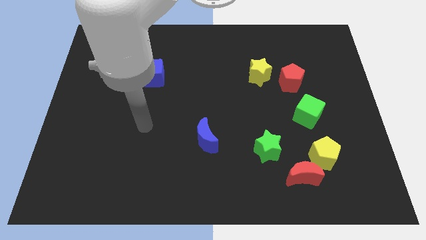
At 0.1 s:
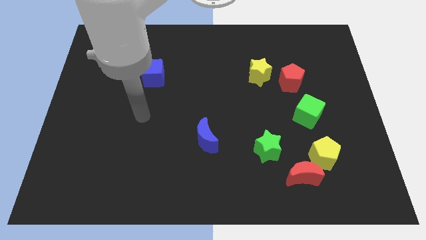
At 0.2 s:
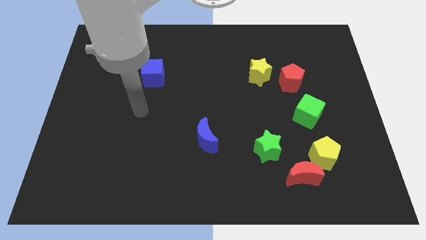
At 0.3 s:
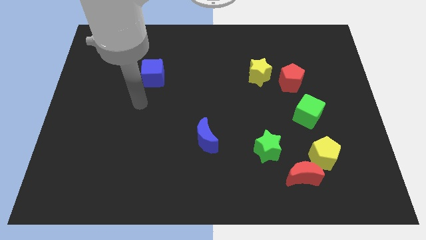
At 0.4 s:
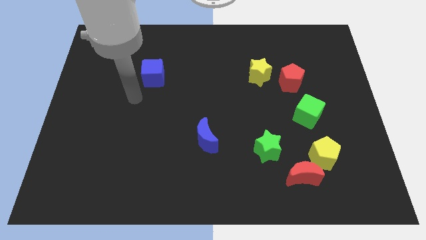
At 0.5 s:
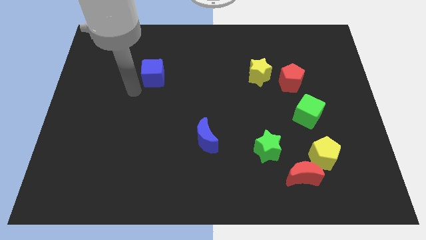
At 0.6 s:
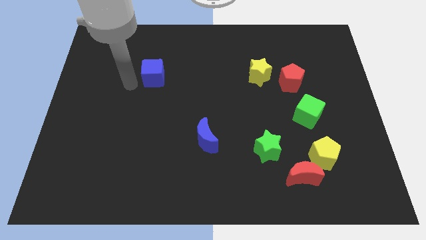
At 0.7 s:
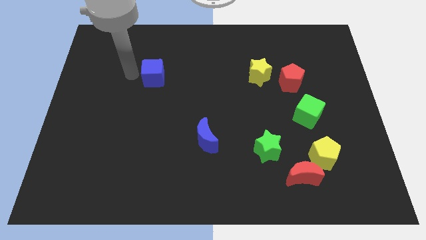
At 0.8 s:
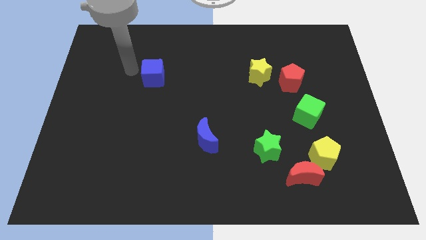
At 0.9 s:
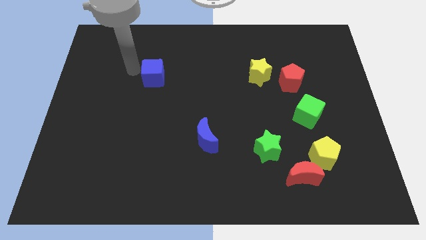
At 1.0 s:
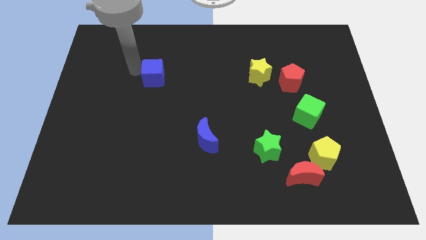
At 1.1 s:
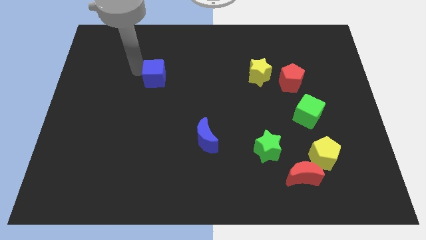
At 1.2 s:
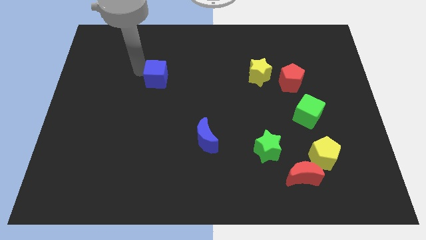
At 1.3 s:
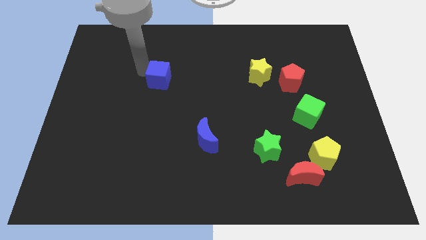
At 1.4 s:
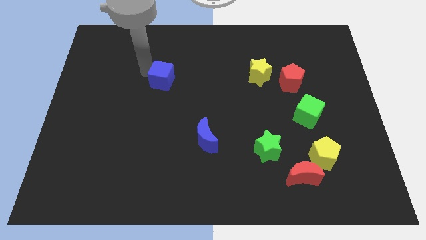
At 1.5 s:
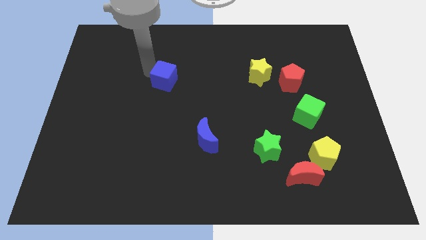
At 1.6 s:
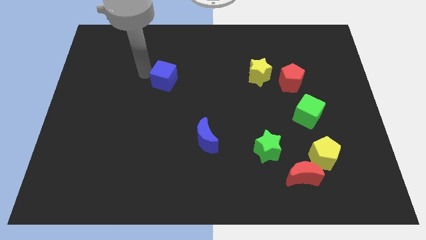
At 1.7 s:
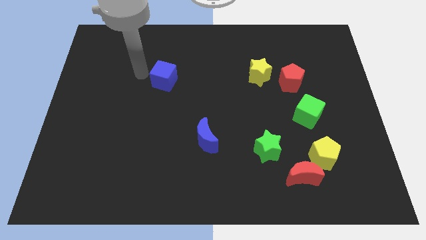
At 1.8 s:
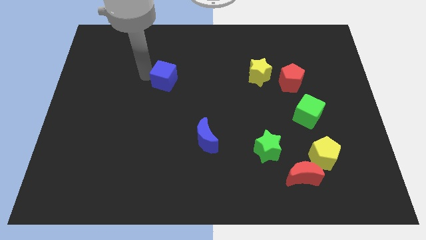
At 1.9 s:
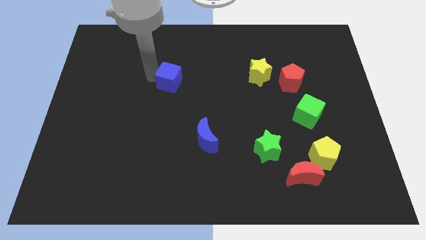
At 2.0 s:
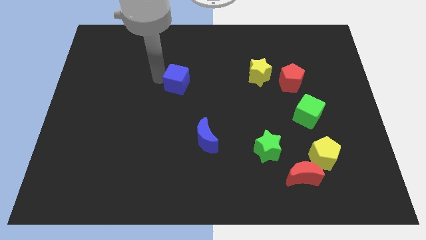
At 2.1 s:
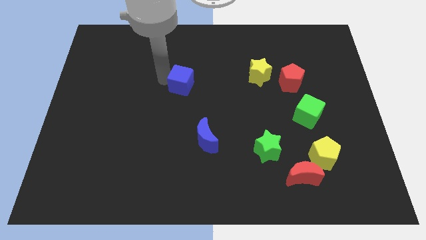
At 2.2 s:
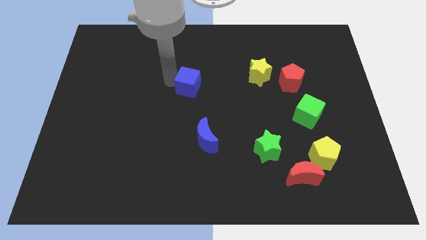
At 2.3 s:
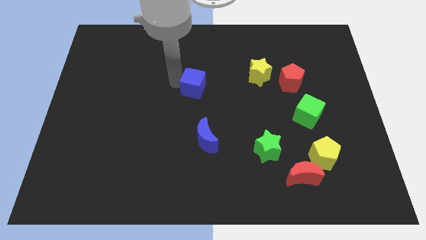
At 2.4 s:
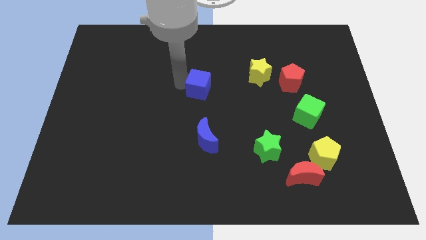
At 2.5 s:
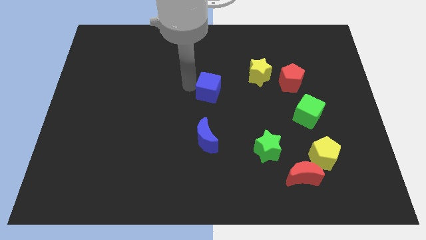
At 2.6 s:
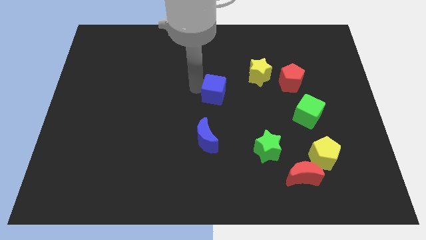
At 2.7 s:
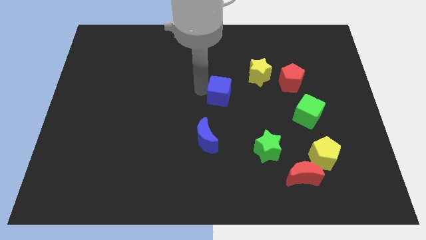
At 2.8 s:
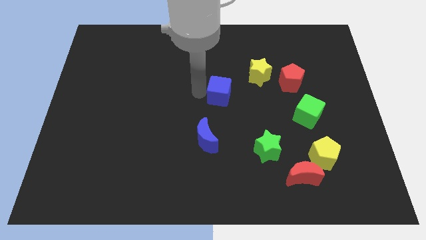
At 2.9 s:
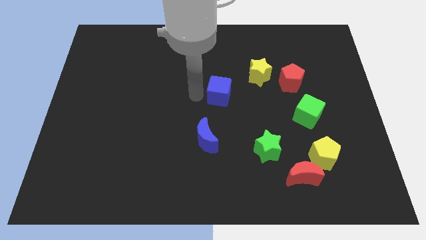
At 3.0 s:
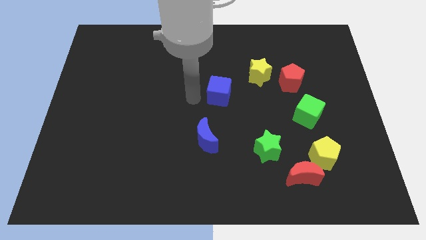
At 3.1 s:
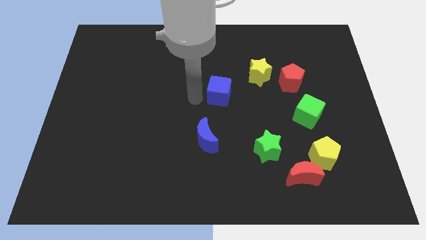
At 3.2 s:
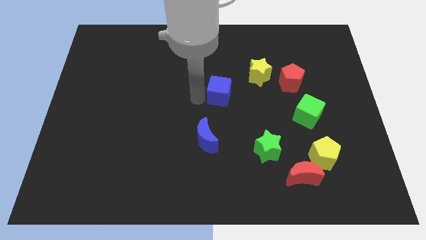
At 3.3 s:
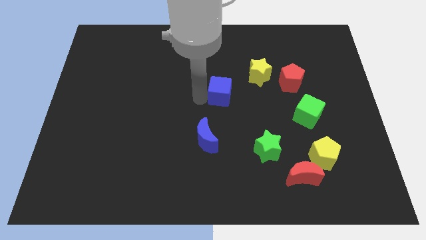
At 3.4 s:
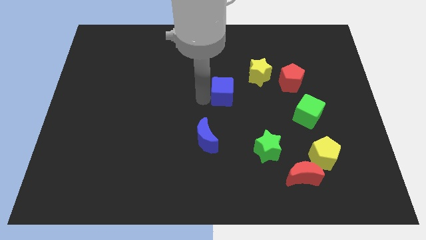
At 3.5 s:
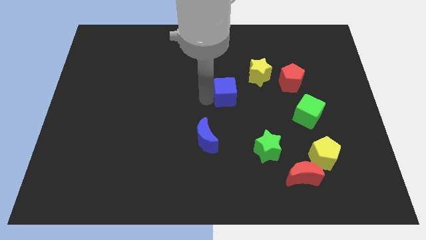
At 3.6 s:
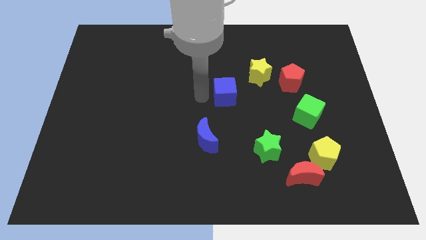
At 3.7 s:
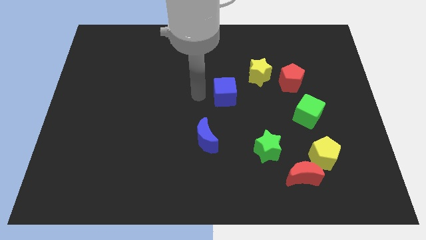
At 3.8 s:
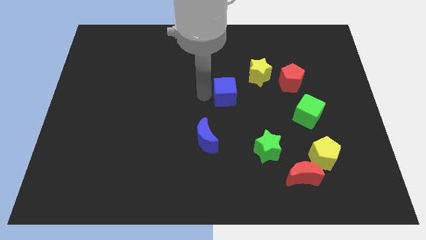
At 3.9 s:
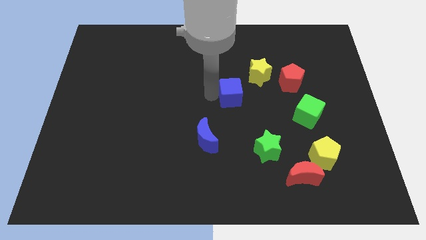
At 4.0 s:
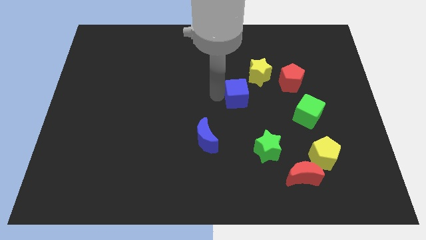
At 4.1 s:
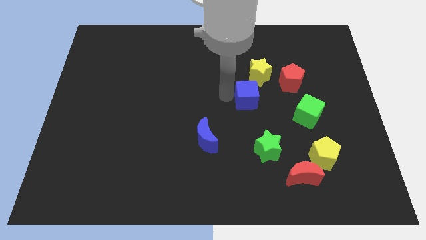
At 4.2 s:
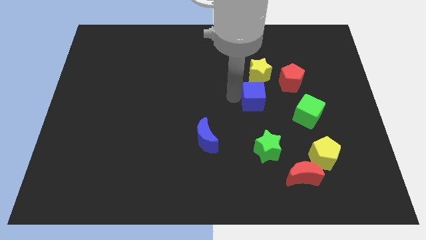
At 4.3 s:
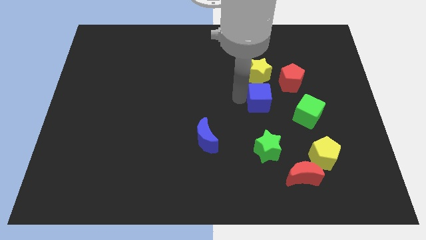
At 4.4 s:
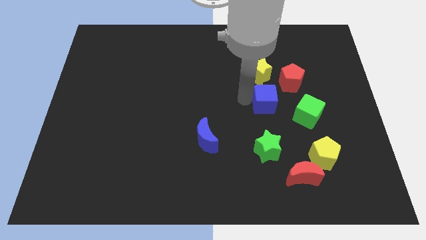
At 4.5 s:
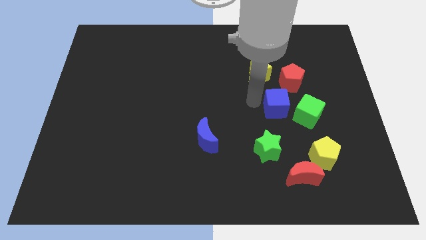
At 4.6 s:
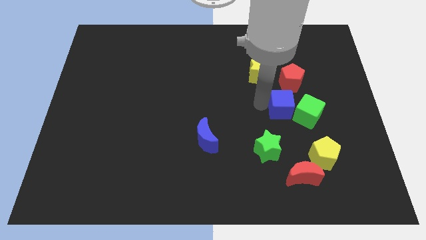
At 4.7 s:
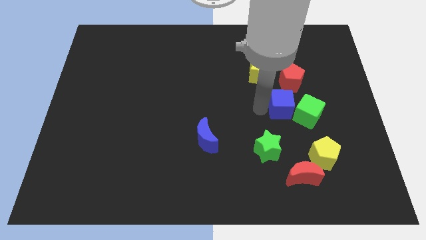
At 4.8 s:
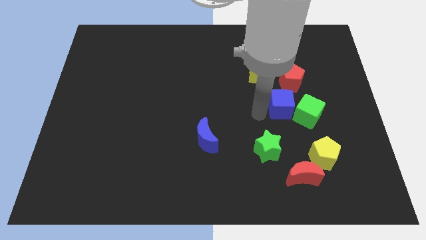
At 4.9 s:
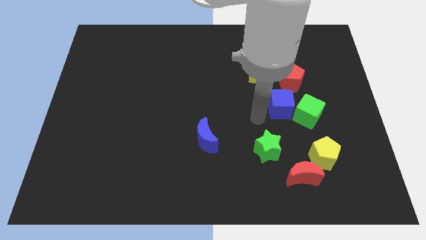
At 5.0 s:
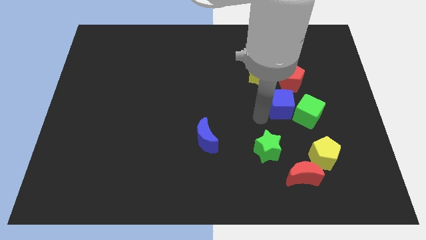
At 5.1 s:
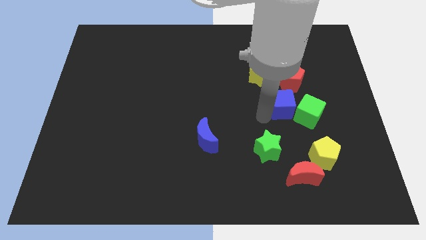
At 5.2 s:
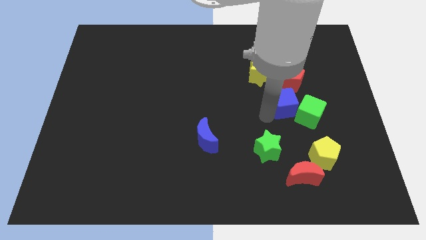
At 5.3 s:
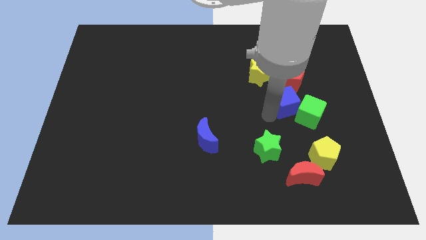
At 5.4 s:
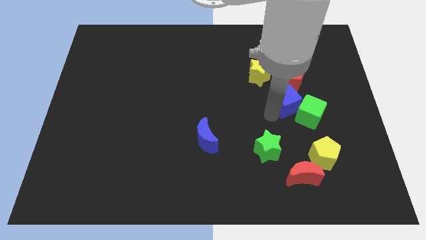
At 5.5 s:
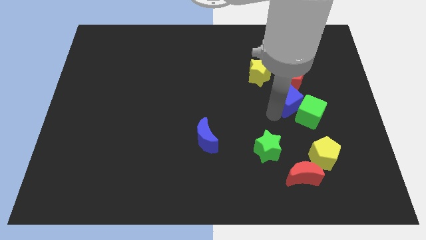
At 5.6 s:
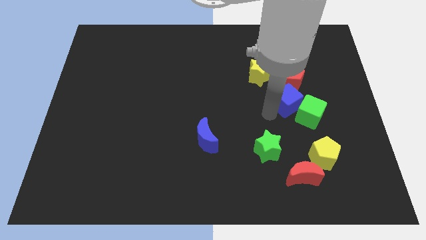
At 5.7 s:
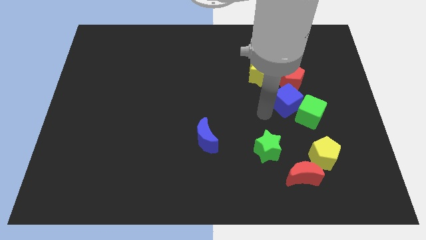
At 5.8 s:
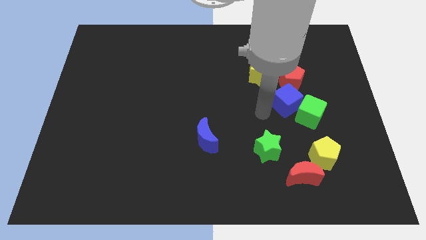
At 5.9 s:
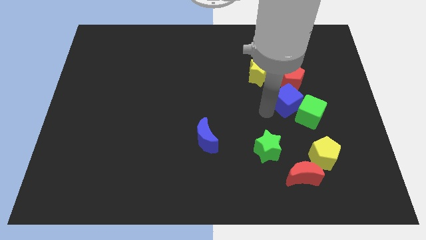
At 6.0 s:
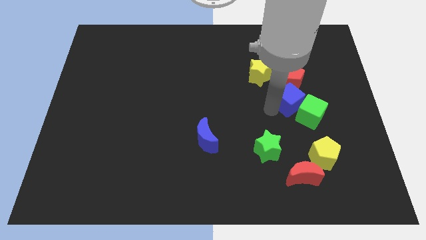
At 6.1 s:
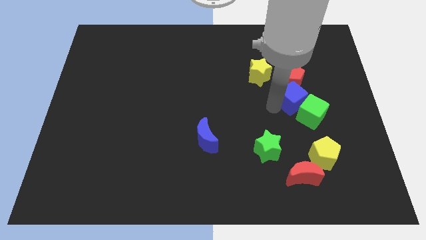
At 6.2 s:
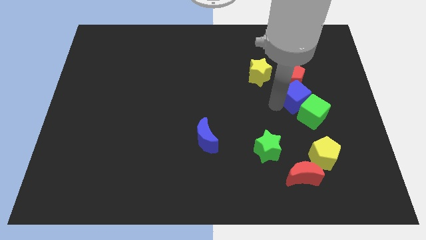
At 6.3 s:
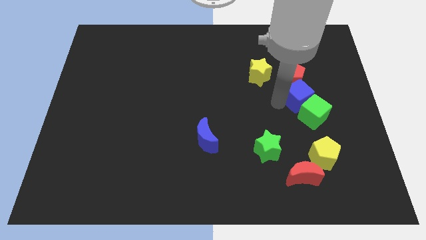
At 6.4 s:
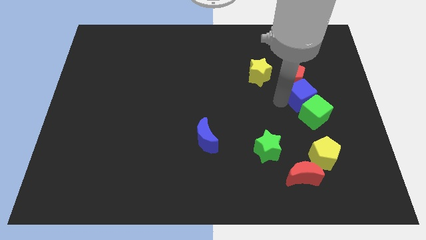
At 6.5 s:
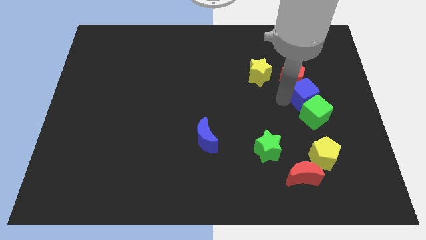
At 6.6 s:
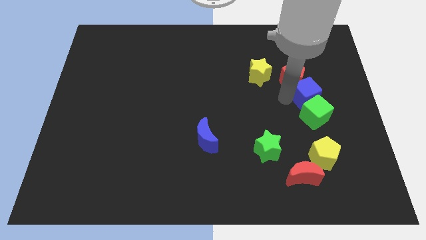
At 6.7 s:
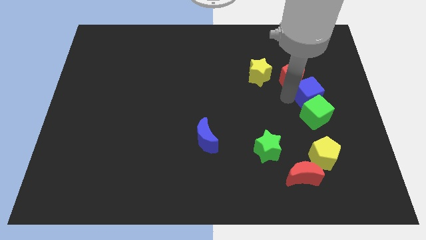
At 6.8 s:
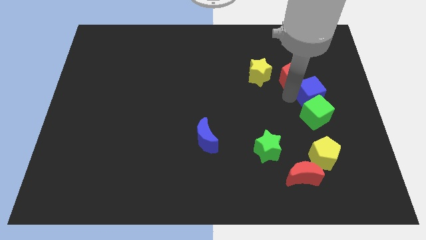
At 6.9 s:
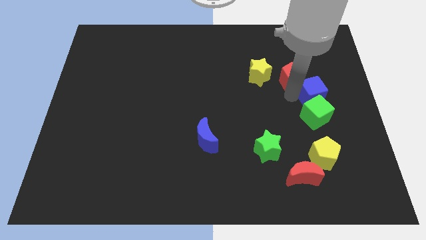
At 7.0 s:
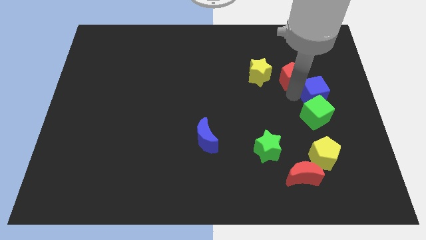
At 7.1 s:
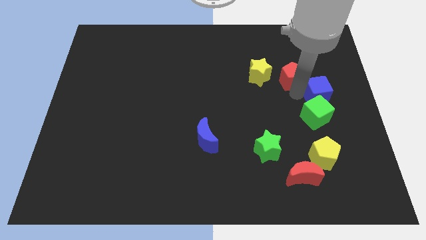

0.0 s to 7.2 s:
move the blue cube to the center right

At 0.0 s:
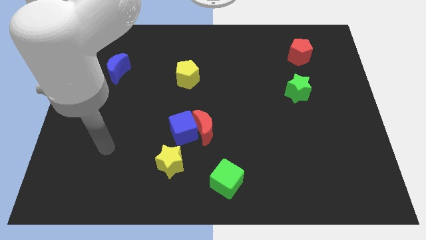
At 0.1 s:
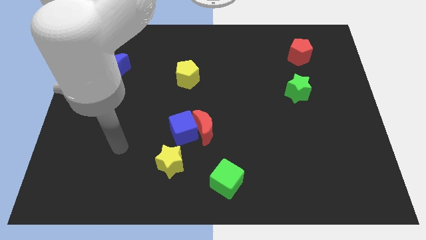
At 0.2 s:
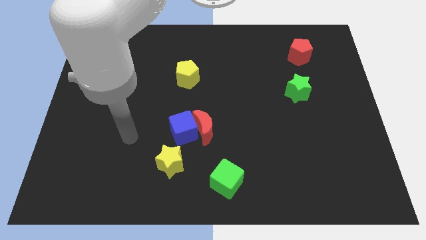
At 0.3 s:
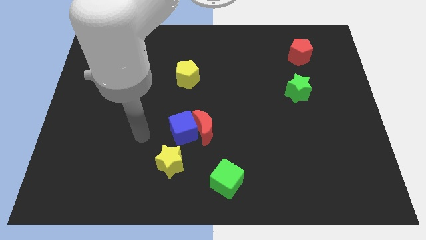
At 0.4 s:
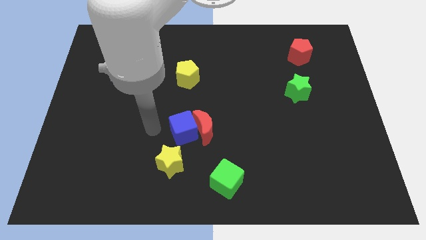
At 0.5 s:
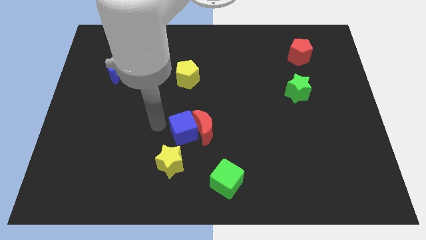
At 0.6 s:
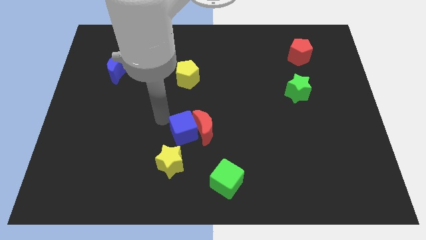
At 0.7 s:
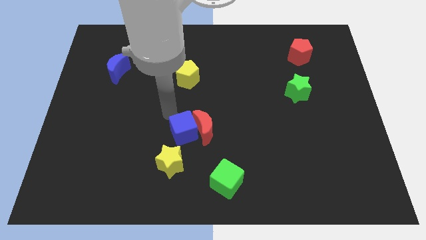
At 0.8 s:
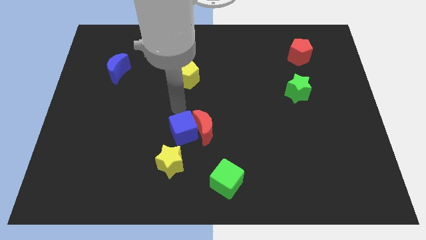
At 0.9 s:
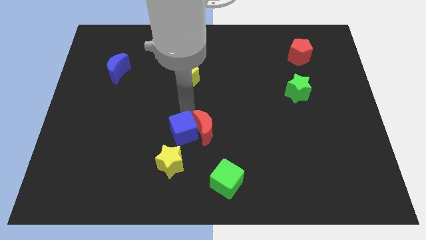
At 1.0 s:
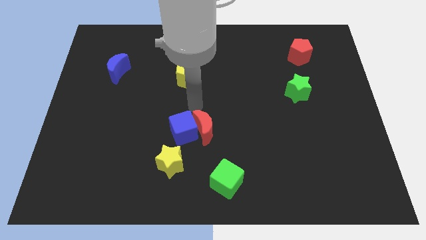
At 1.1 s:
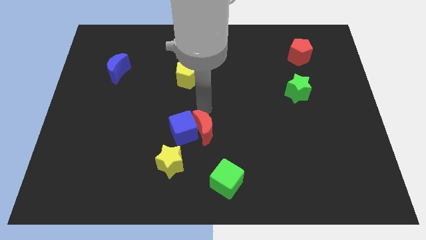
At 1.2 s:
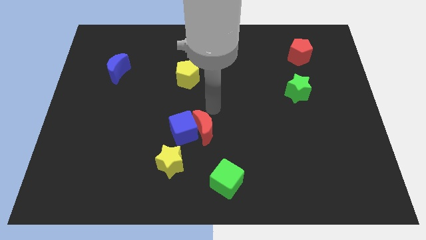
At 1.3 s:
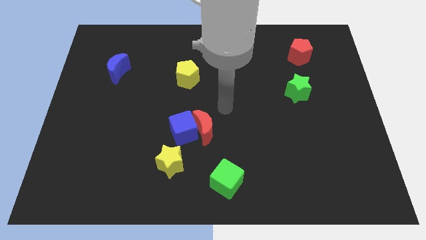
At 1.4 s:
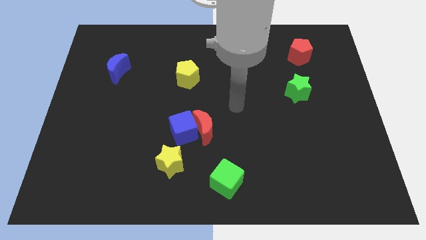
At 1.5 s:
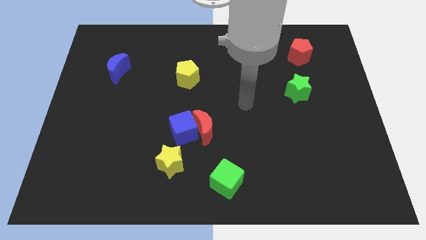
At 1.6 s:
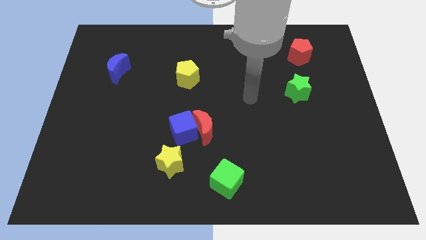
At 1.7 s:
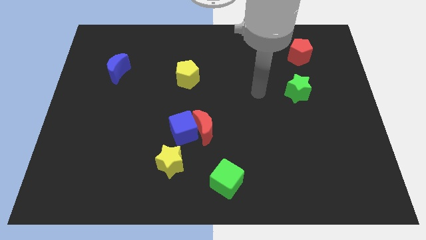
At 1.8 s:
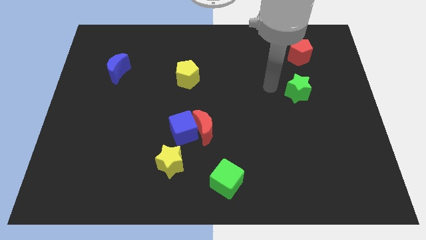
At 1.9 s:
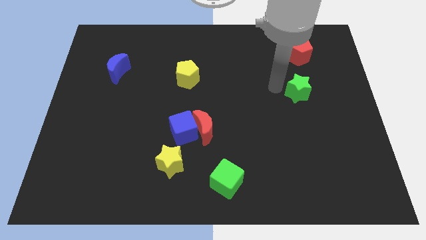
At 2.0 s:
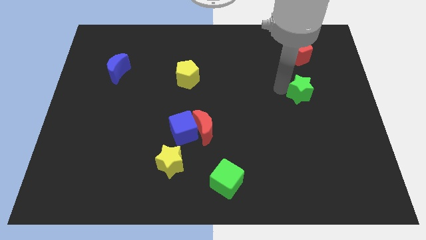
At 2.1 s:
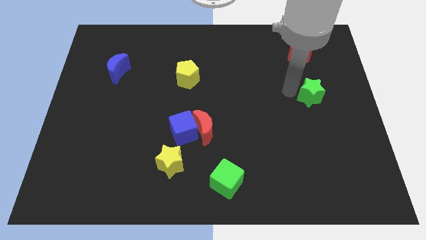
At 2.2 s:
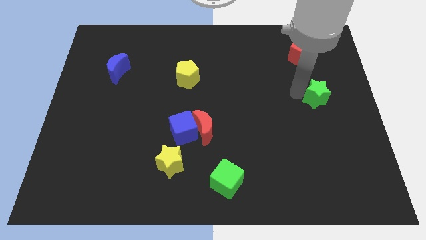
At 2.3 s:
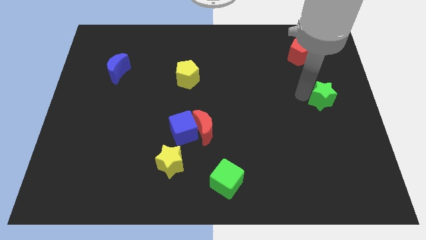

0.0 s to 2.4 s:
push the green star to the center right
